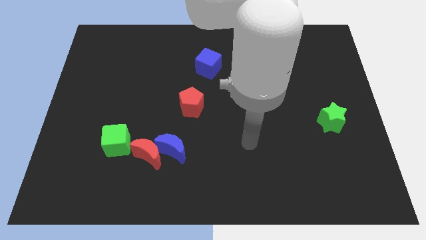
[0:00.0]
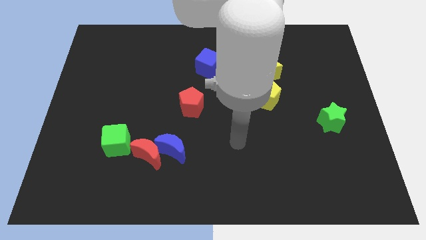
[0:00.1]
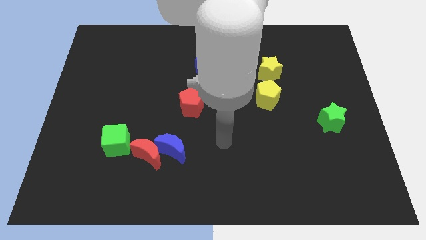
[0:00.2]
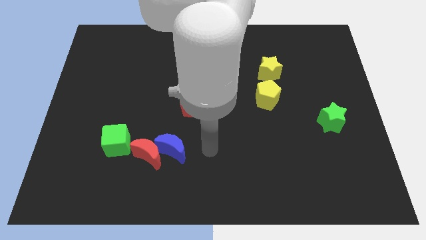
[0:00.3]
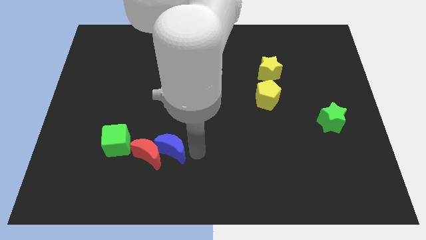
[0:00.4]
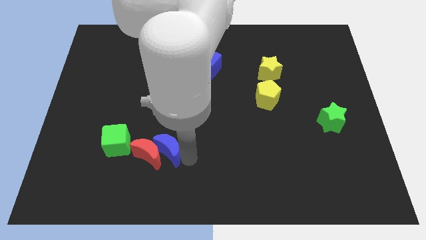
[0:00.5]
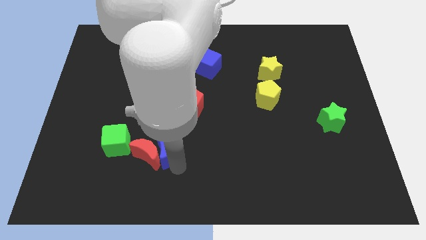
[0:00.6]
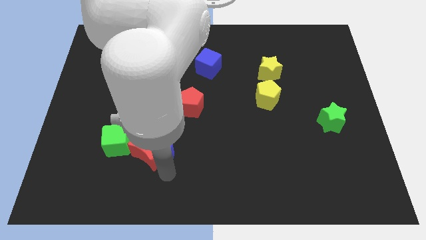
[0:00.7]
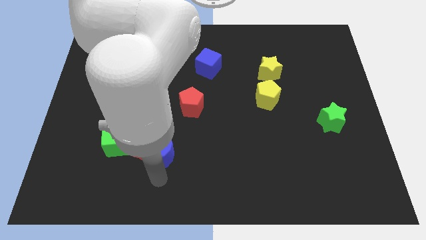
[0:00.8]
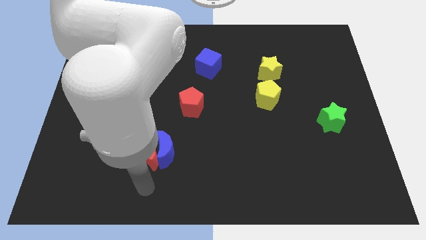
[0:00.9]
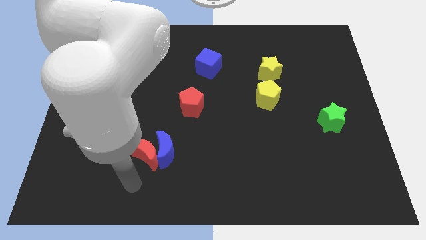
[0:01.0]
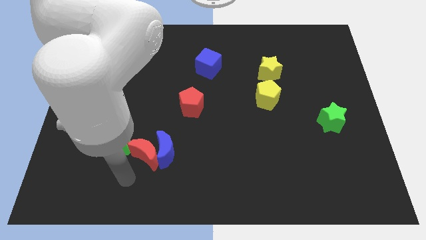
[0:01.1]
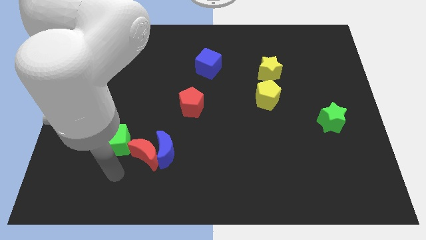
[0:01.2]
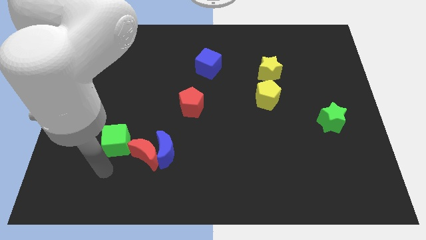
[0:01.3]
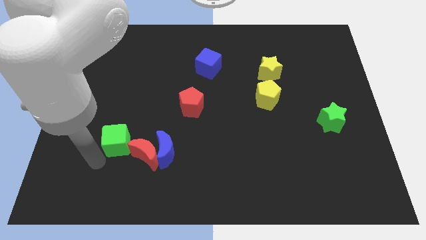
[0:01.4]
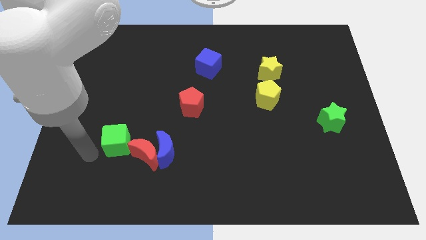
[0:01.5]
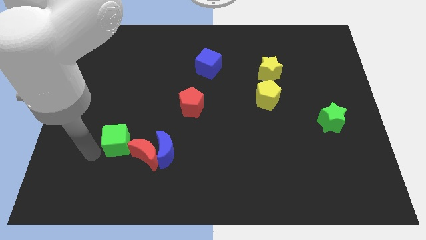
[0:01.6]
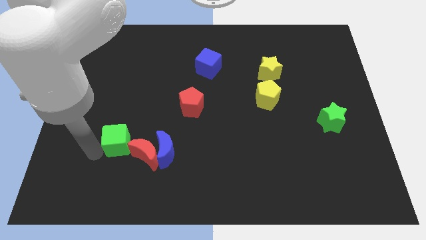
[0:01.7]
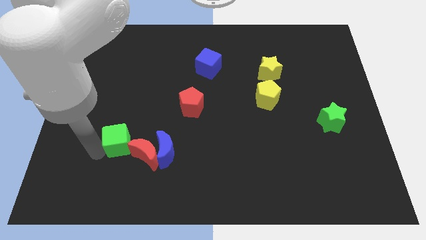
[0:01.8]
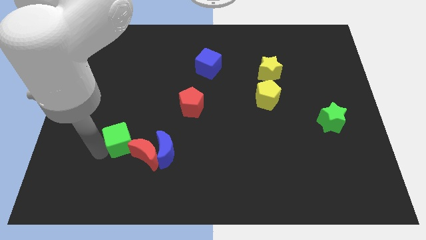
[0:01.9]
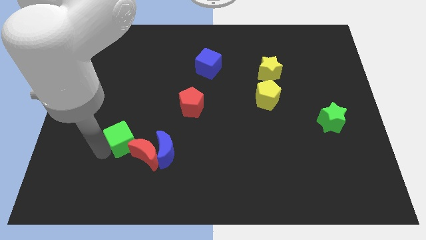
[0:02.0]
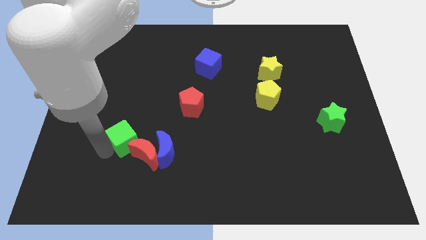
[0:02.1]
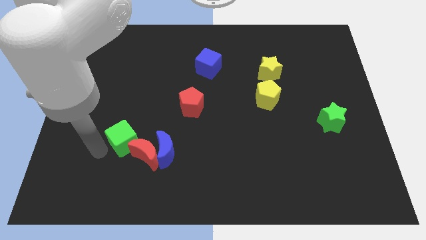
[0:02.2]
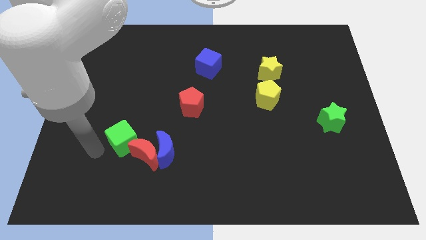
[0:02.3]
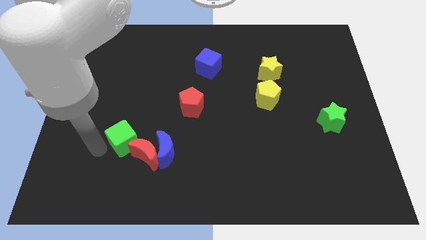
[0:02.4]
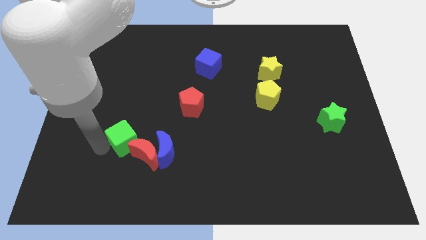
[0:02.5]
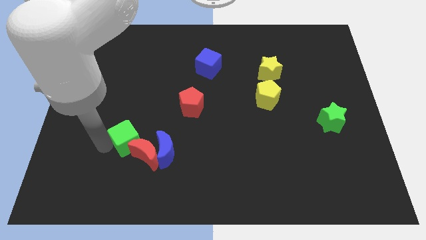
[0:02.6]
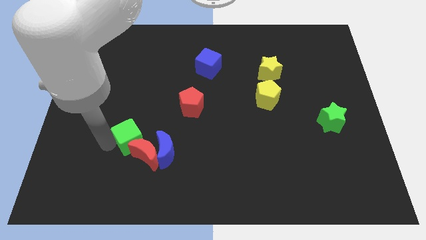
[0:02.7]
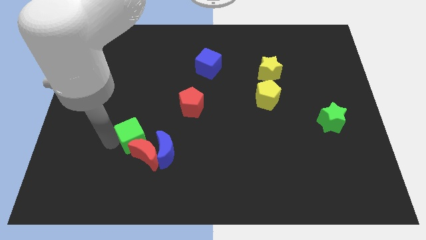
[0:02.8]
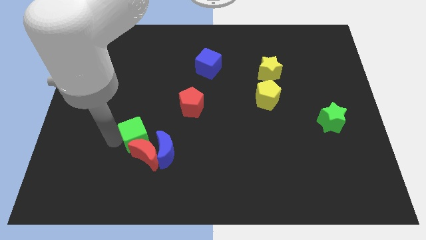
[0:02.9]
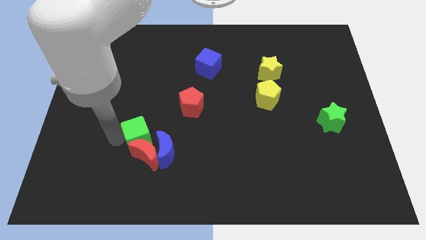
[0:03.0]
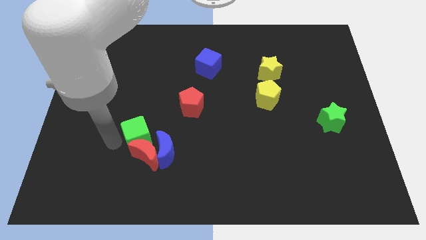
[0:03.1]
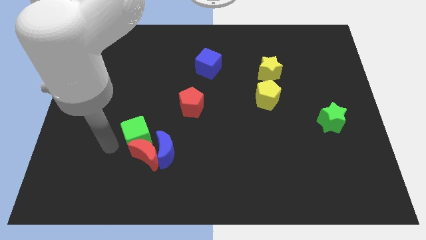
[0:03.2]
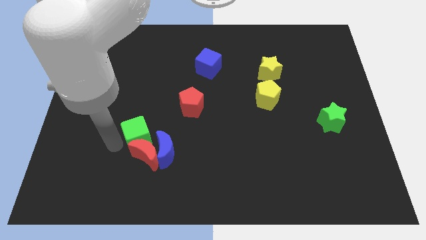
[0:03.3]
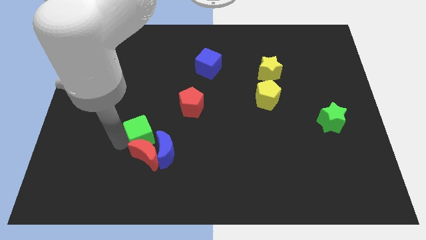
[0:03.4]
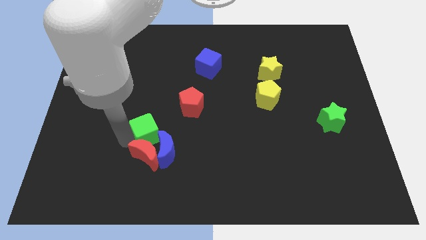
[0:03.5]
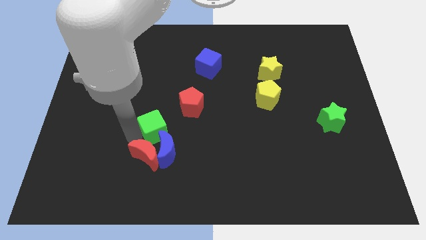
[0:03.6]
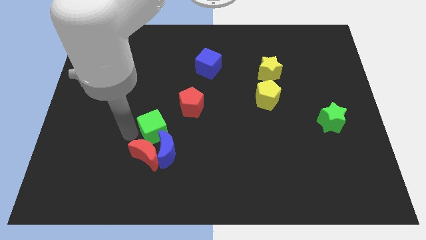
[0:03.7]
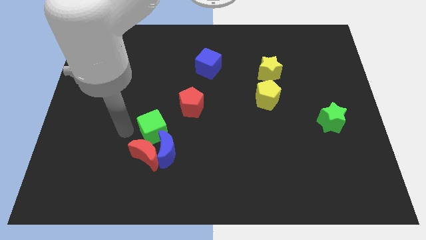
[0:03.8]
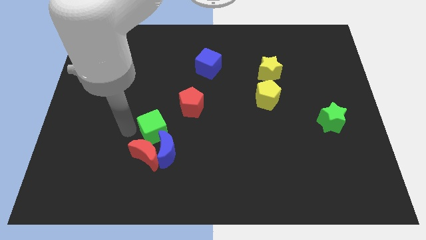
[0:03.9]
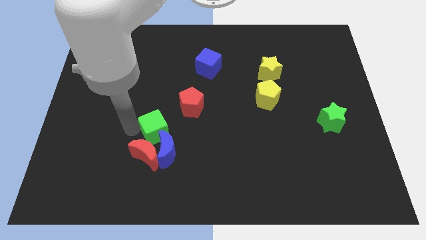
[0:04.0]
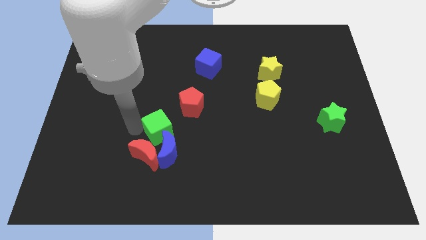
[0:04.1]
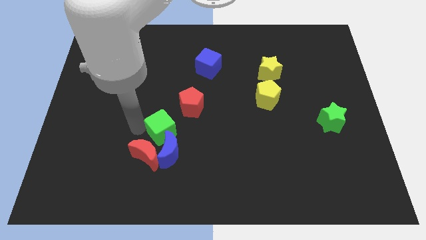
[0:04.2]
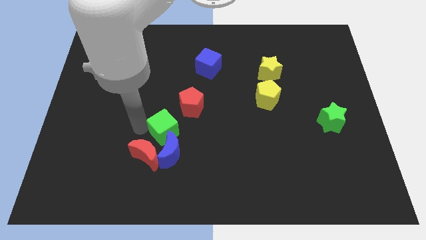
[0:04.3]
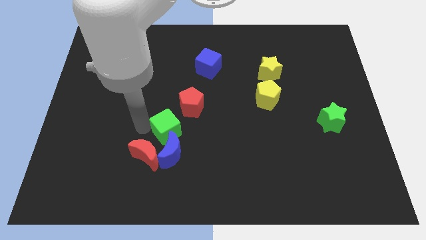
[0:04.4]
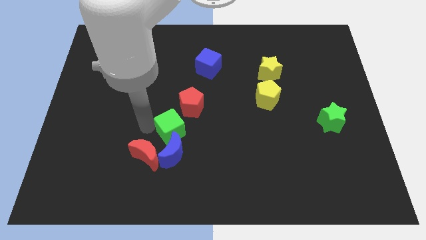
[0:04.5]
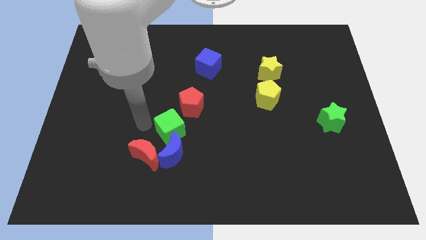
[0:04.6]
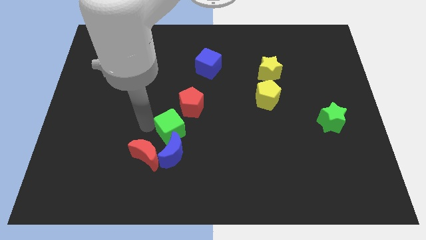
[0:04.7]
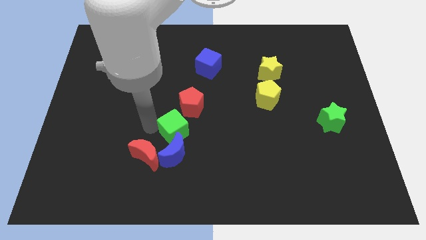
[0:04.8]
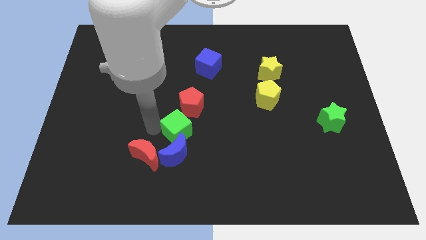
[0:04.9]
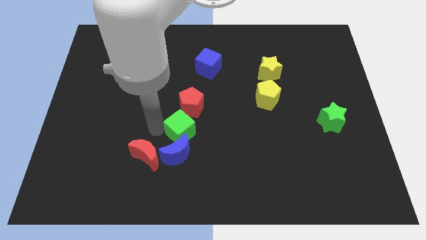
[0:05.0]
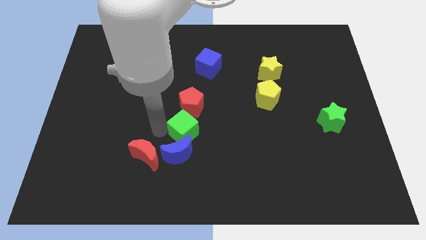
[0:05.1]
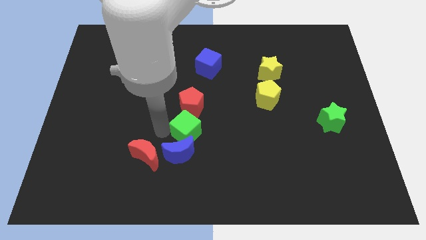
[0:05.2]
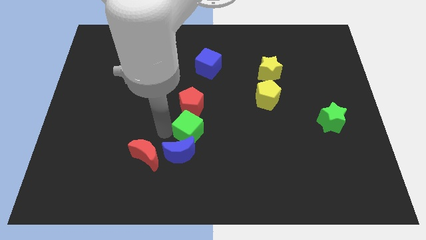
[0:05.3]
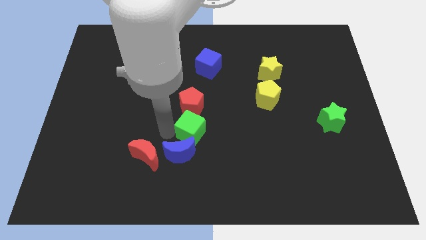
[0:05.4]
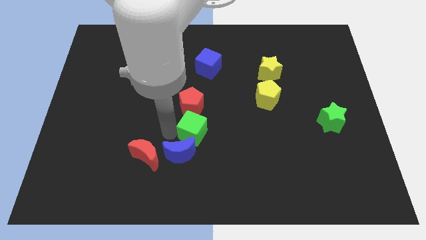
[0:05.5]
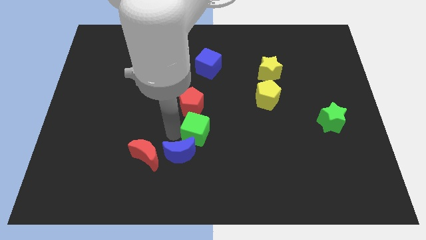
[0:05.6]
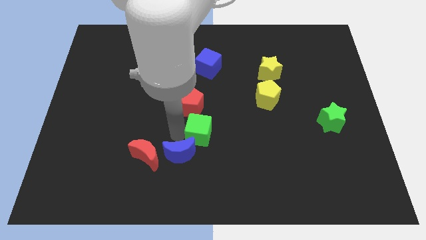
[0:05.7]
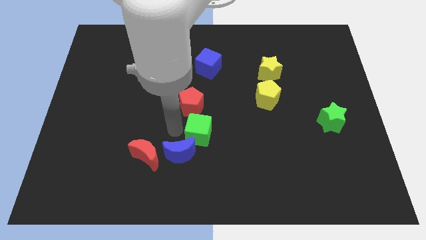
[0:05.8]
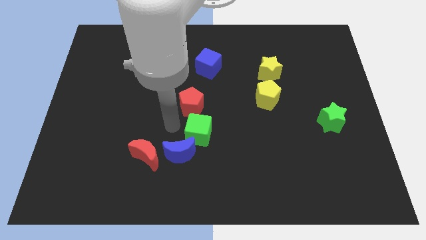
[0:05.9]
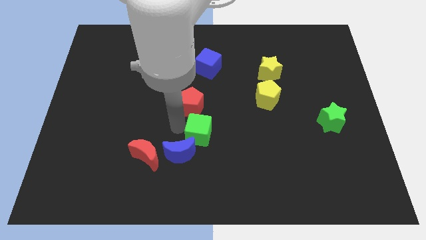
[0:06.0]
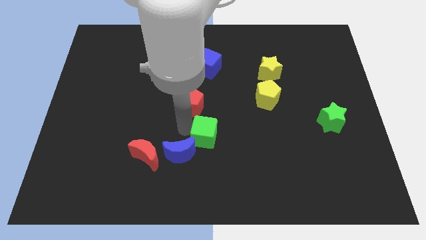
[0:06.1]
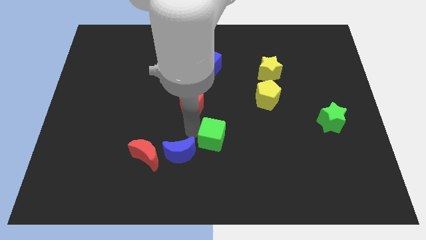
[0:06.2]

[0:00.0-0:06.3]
push the green cube to the right
